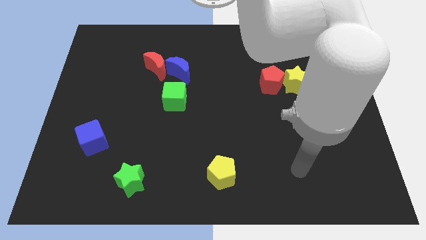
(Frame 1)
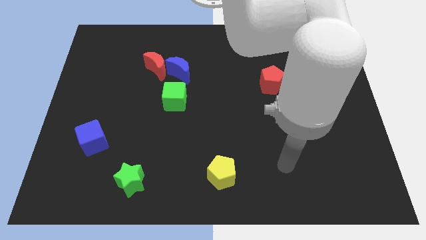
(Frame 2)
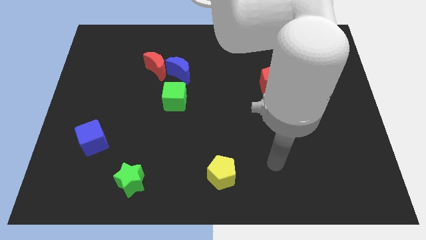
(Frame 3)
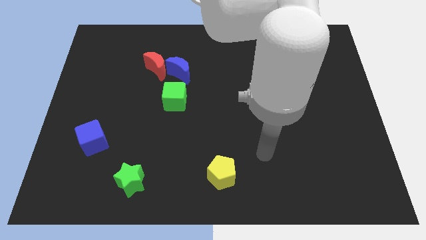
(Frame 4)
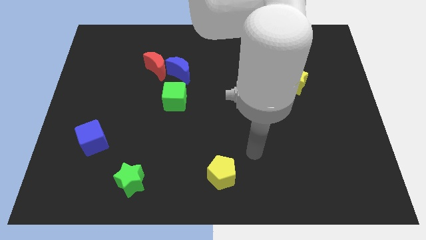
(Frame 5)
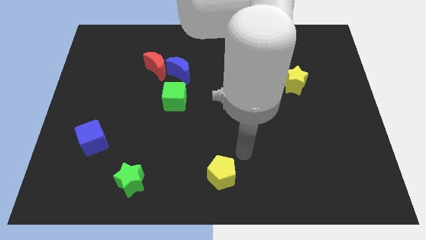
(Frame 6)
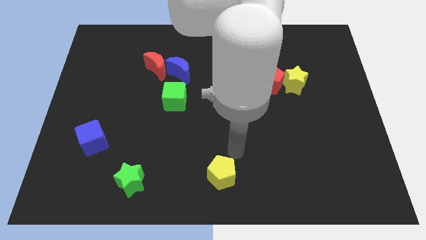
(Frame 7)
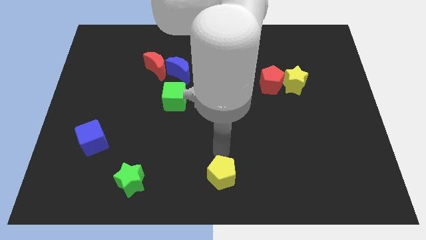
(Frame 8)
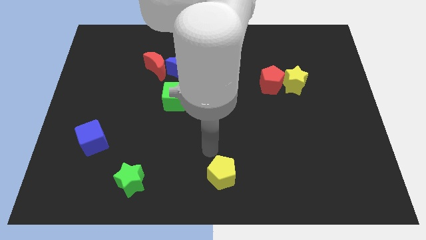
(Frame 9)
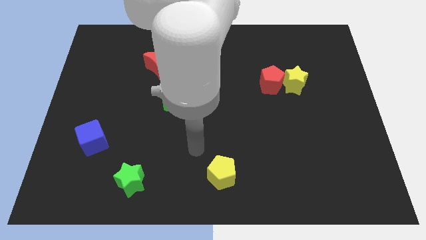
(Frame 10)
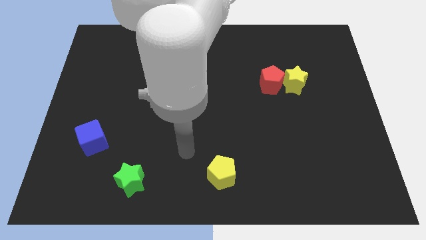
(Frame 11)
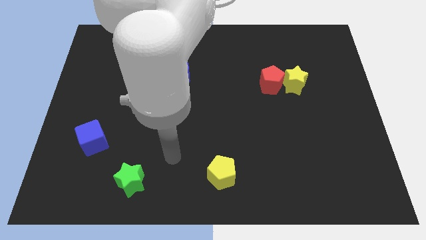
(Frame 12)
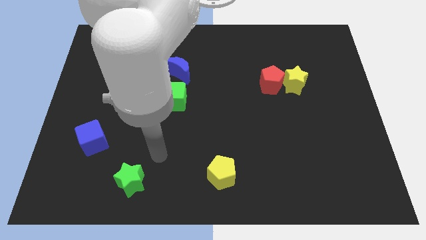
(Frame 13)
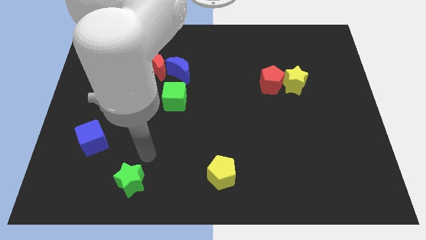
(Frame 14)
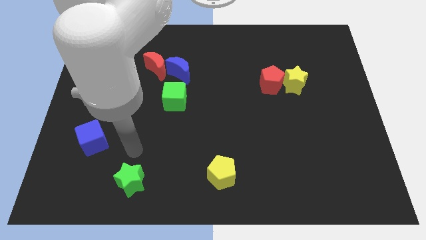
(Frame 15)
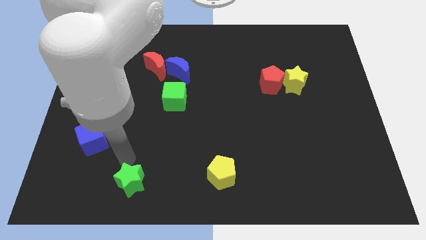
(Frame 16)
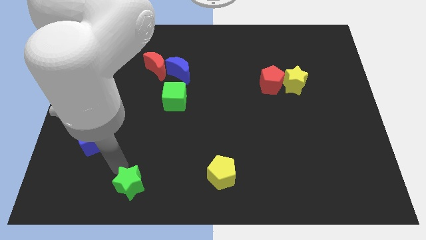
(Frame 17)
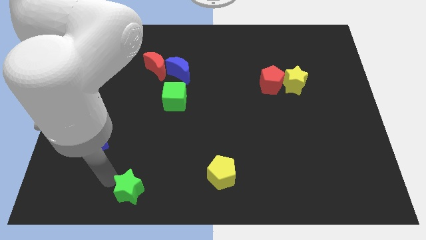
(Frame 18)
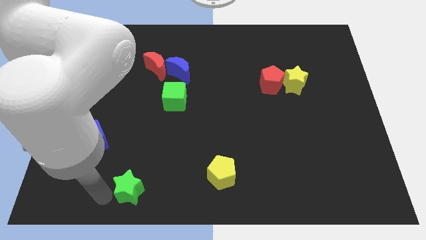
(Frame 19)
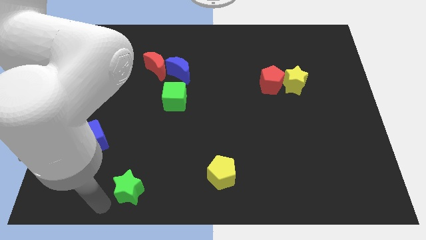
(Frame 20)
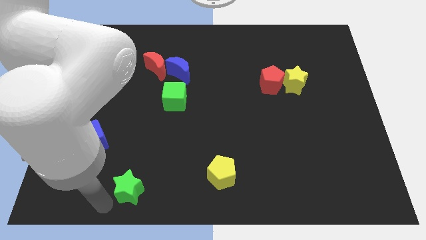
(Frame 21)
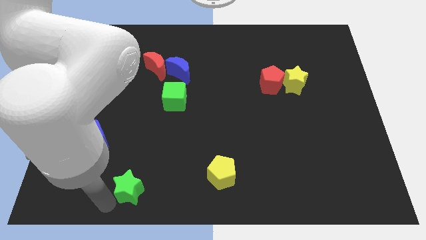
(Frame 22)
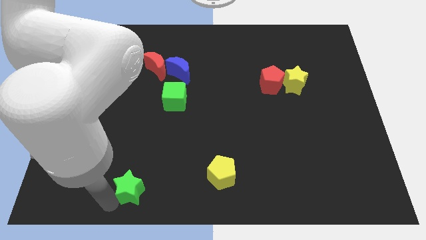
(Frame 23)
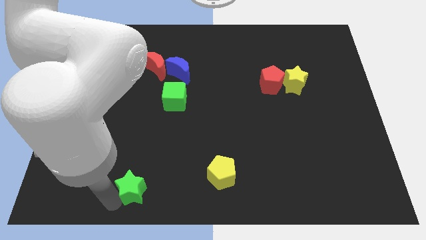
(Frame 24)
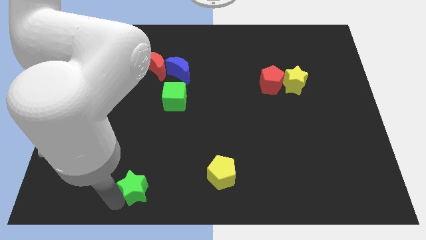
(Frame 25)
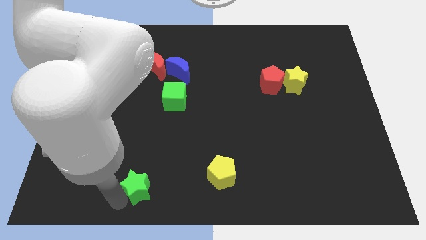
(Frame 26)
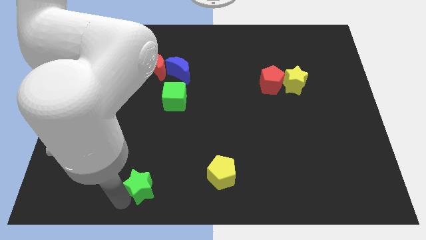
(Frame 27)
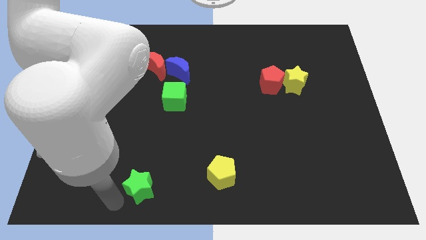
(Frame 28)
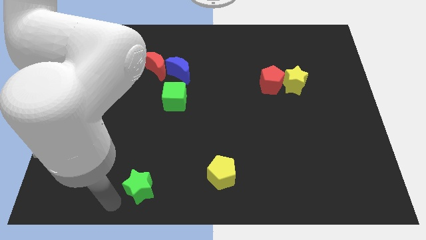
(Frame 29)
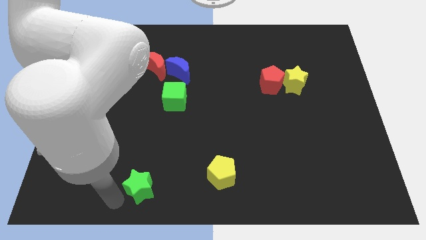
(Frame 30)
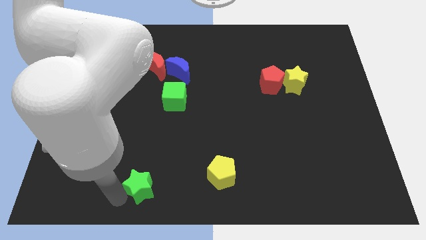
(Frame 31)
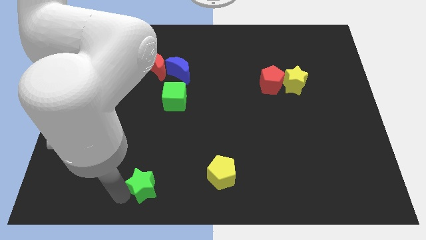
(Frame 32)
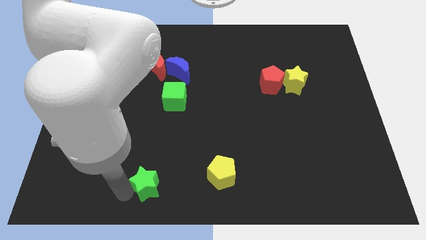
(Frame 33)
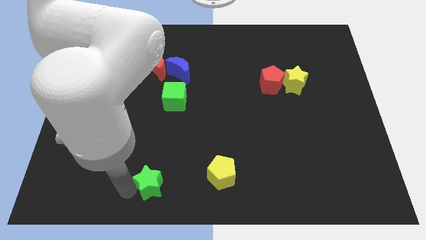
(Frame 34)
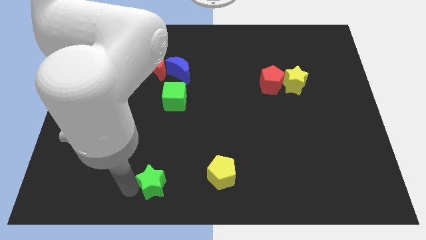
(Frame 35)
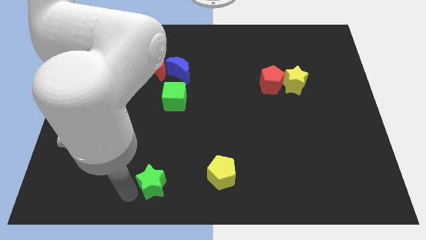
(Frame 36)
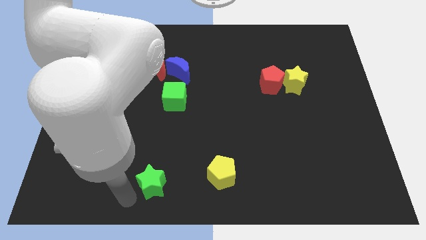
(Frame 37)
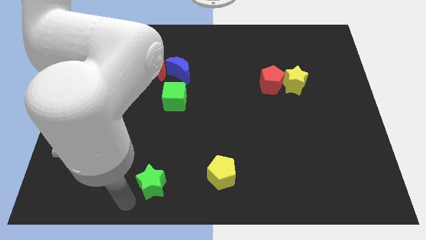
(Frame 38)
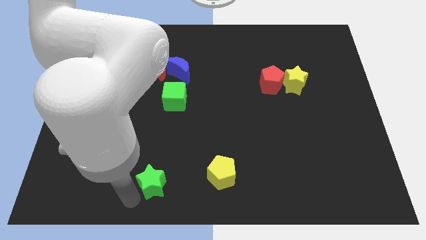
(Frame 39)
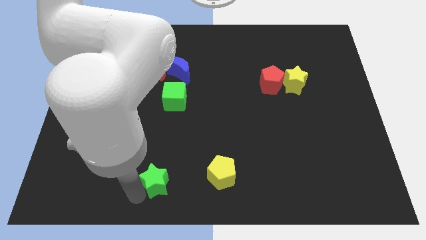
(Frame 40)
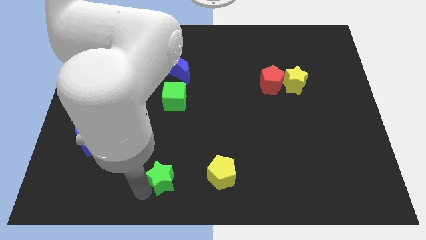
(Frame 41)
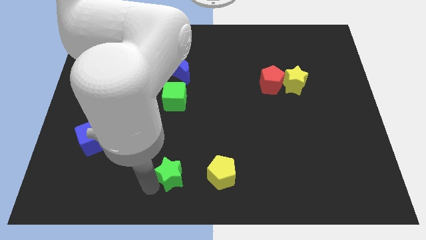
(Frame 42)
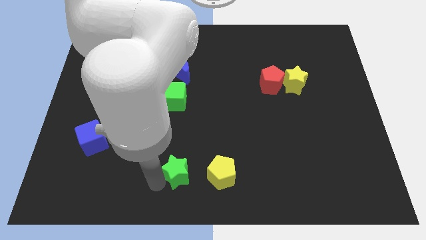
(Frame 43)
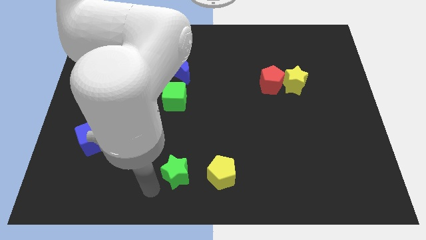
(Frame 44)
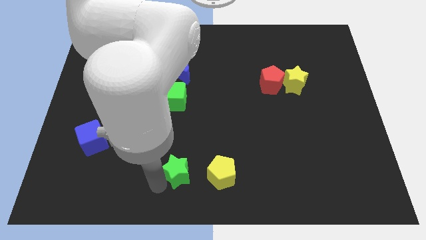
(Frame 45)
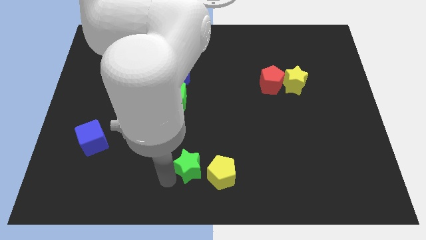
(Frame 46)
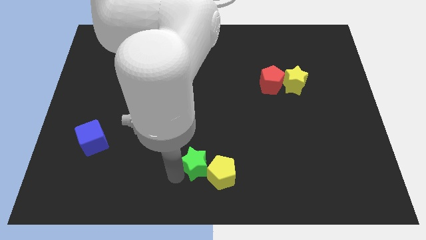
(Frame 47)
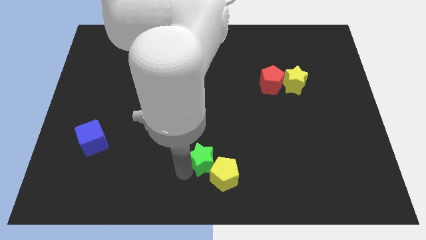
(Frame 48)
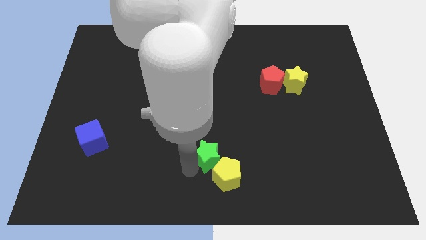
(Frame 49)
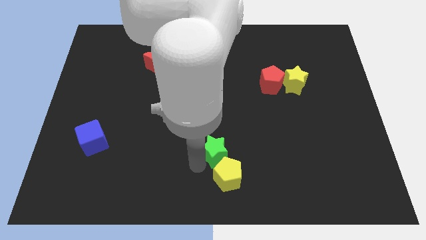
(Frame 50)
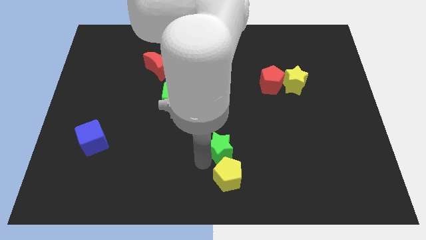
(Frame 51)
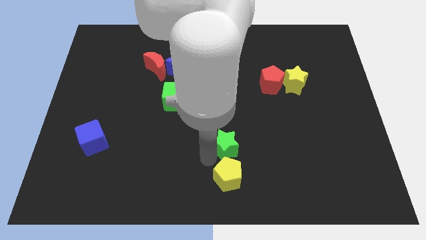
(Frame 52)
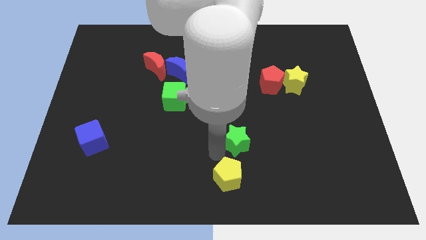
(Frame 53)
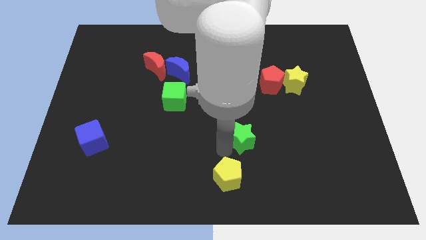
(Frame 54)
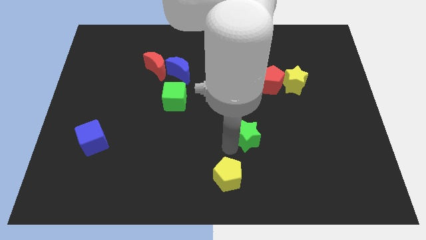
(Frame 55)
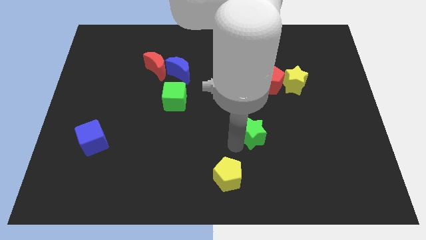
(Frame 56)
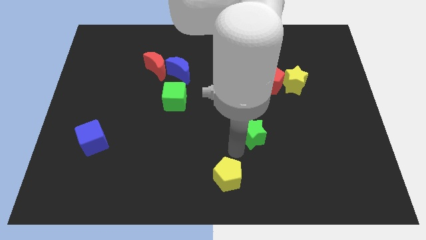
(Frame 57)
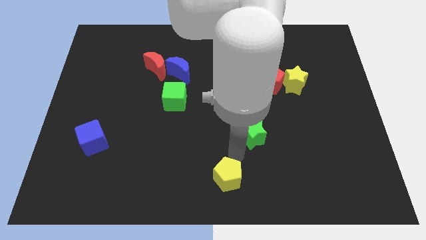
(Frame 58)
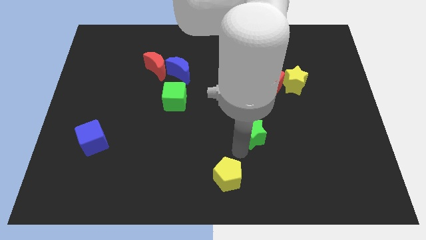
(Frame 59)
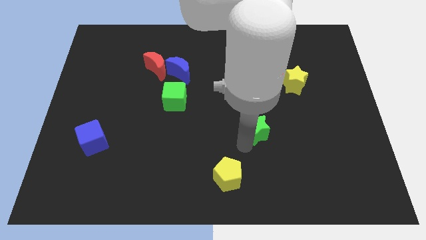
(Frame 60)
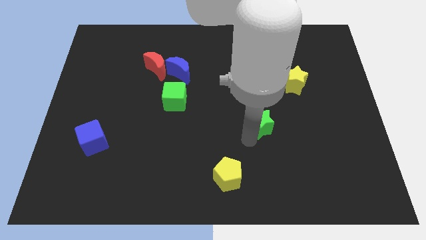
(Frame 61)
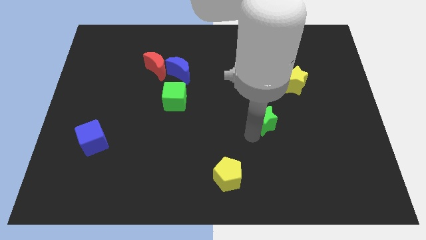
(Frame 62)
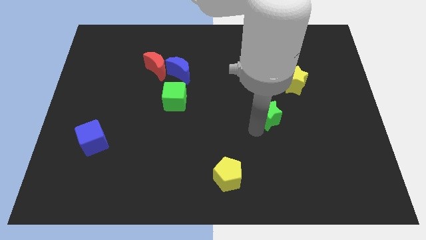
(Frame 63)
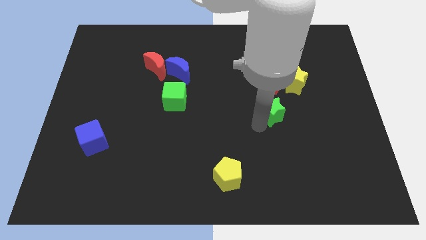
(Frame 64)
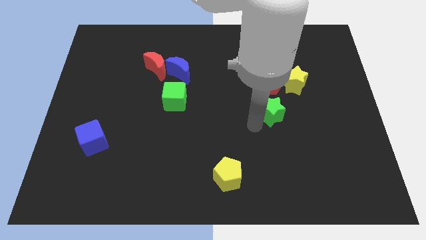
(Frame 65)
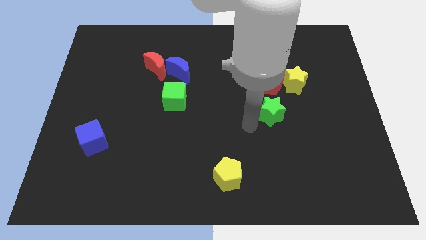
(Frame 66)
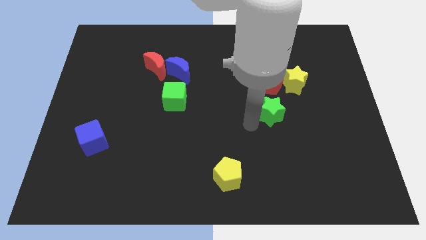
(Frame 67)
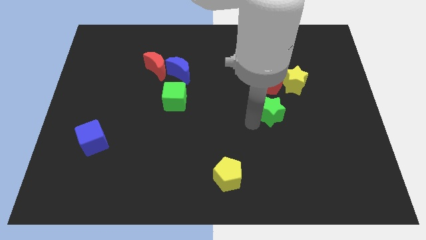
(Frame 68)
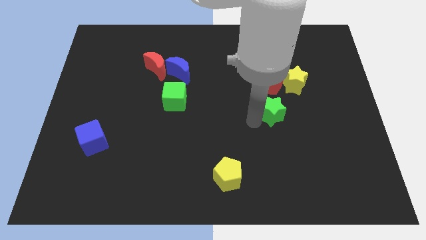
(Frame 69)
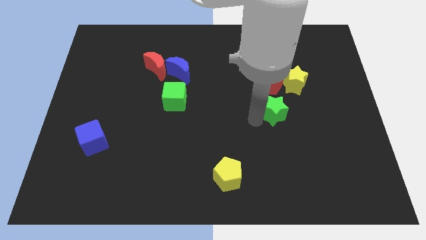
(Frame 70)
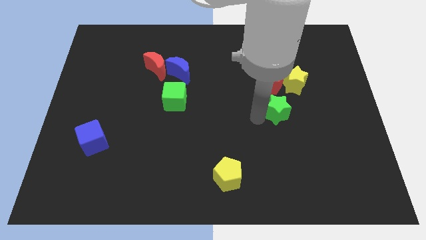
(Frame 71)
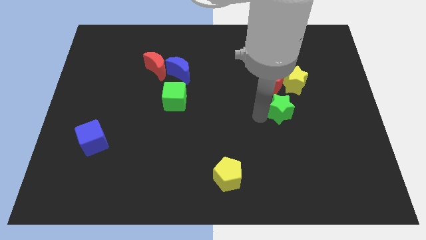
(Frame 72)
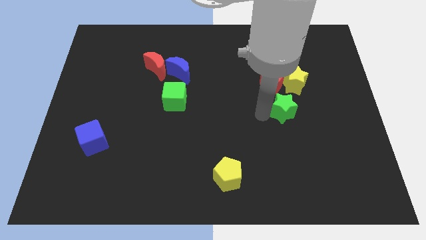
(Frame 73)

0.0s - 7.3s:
push the green star to the bottom right of the red pentagon

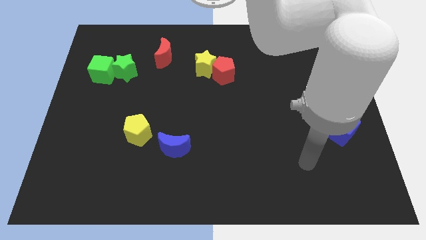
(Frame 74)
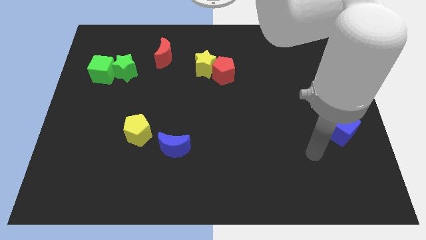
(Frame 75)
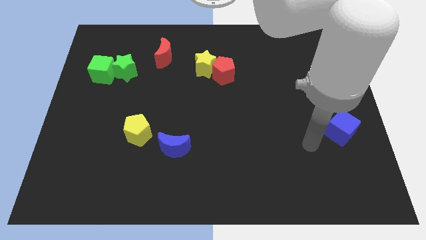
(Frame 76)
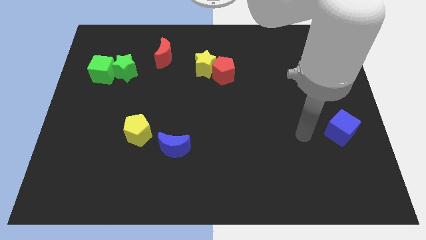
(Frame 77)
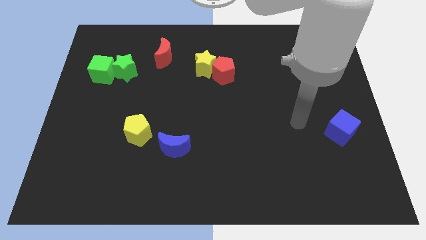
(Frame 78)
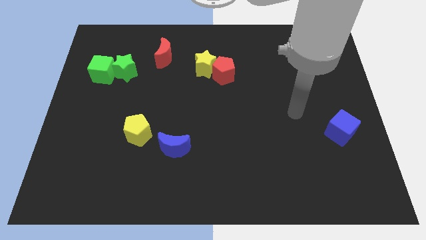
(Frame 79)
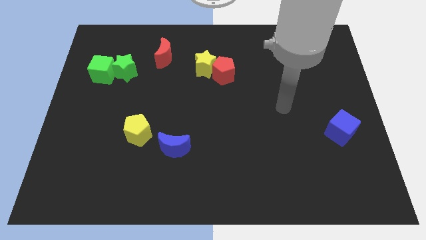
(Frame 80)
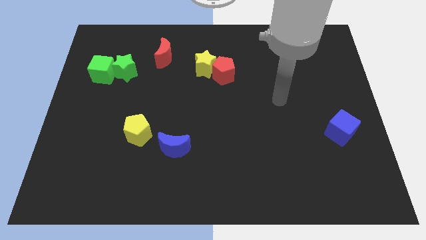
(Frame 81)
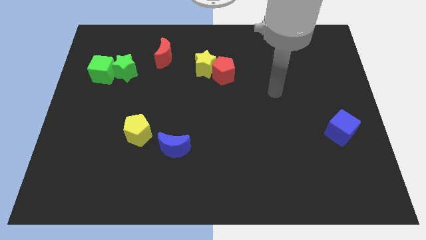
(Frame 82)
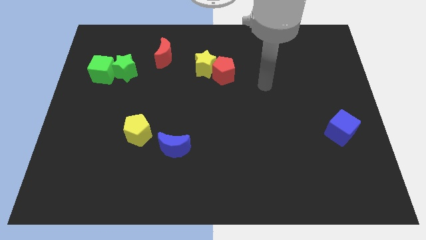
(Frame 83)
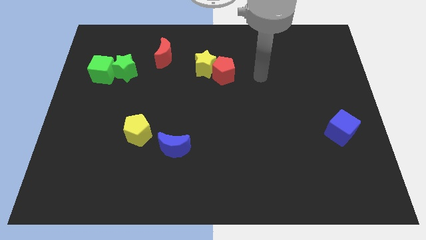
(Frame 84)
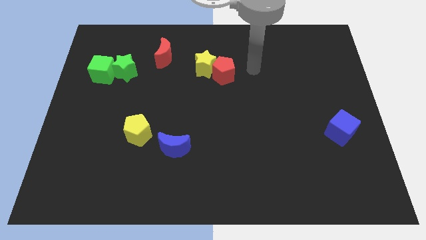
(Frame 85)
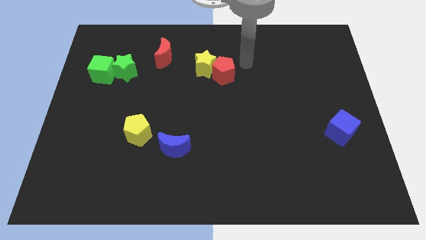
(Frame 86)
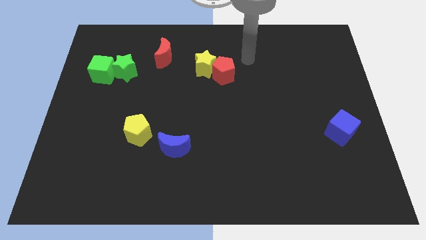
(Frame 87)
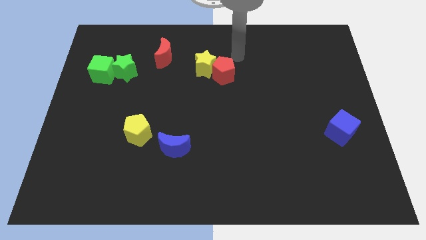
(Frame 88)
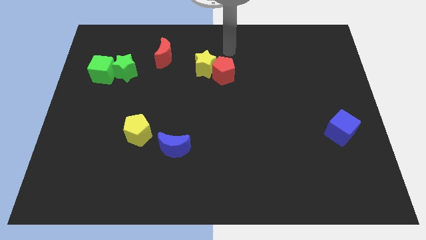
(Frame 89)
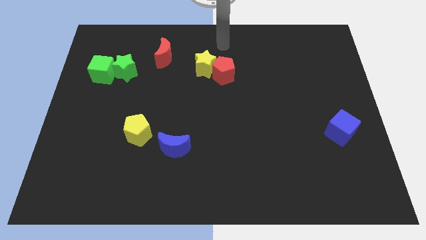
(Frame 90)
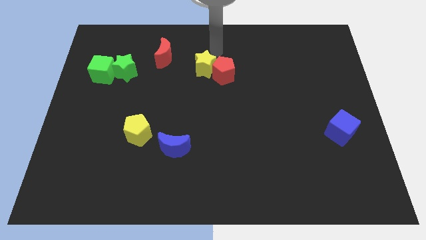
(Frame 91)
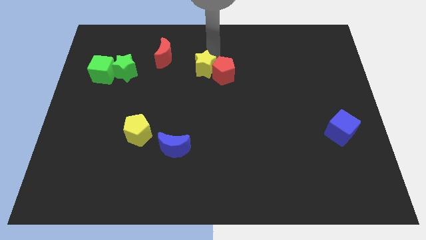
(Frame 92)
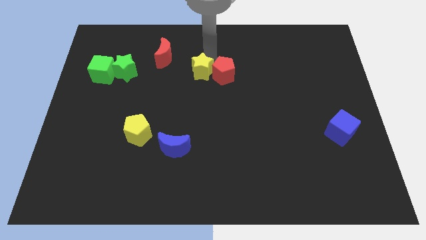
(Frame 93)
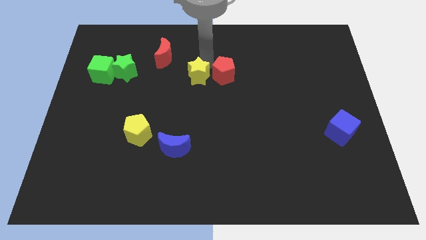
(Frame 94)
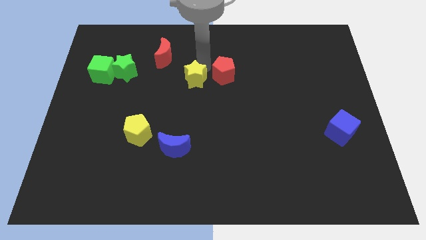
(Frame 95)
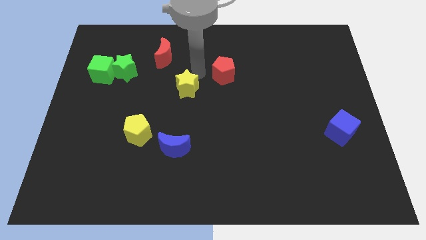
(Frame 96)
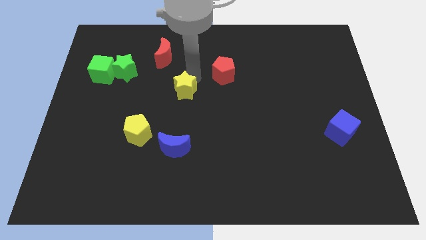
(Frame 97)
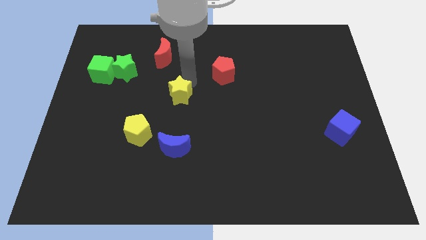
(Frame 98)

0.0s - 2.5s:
push the yellow star to the top side of the blue moon
